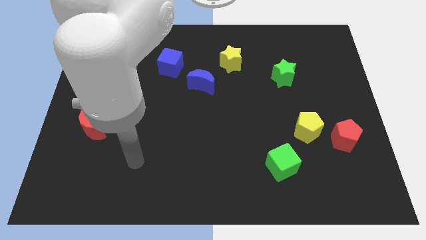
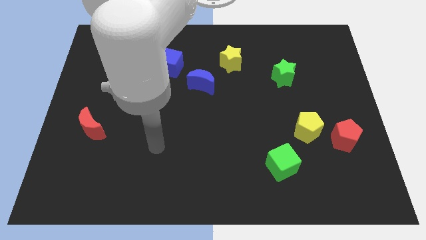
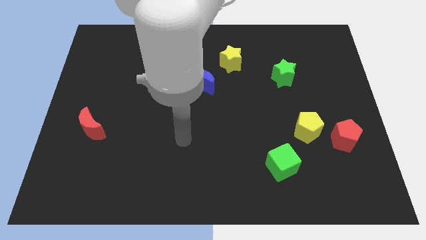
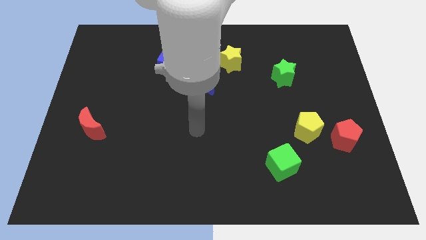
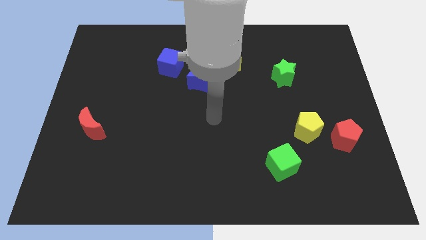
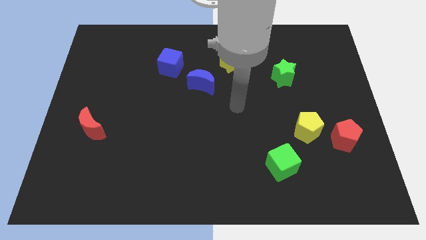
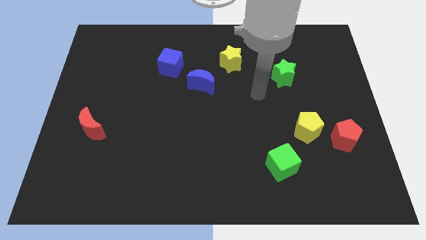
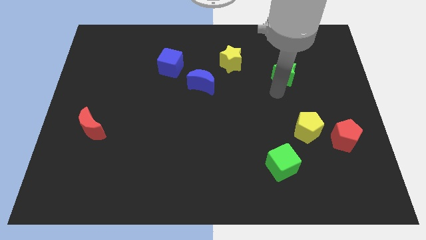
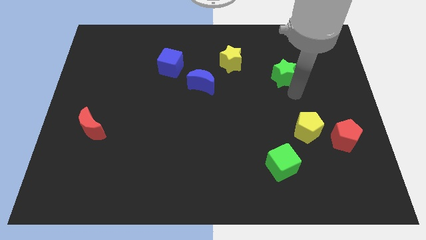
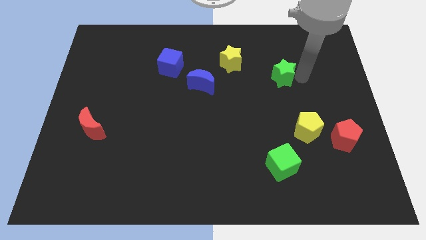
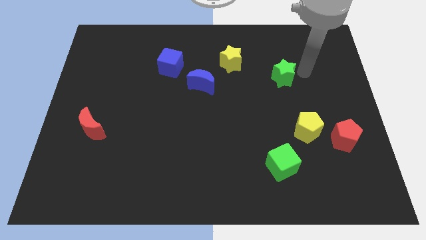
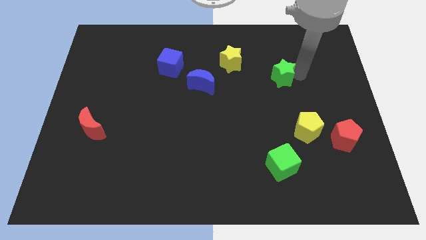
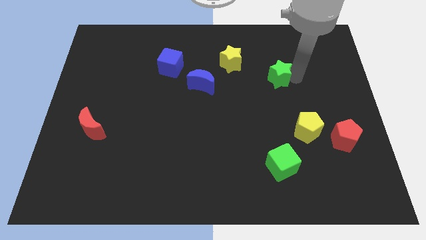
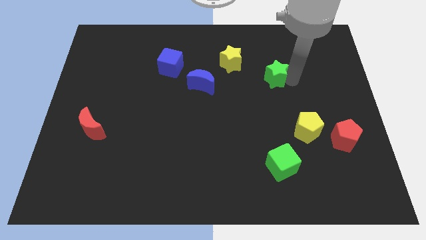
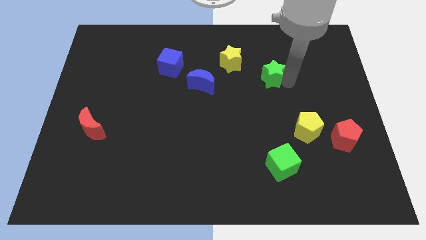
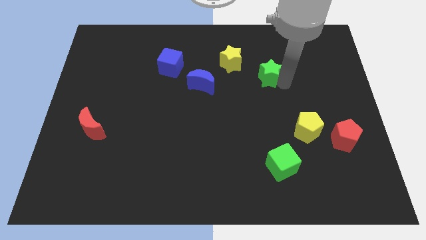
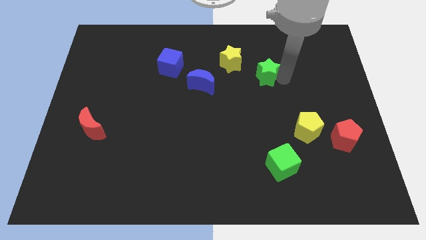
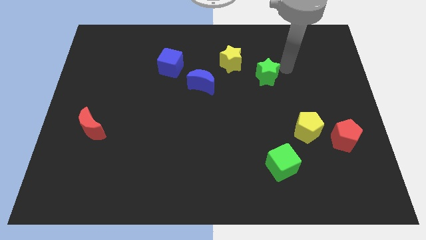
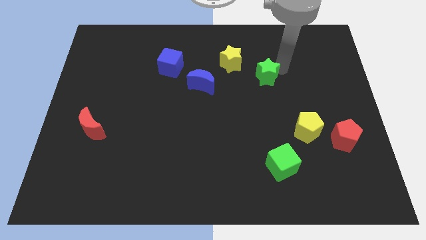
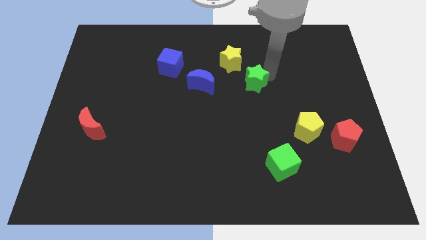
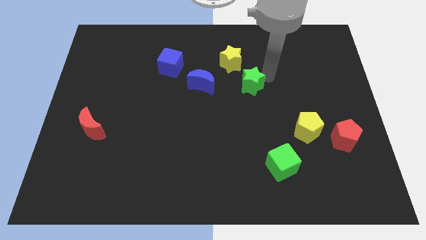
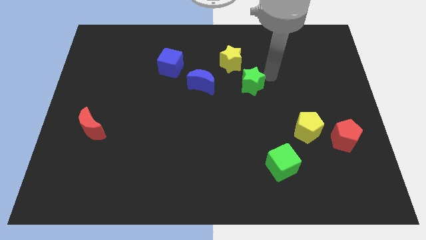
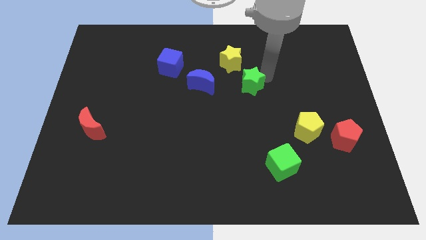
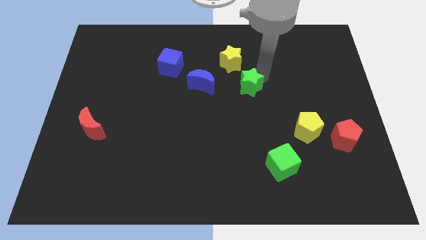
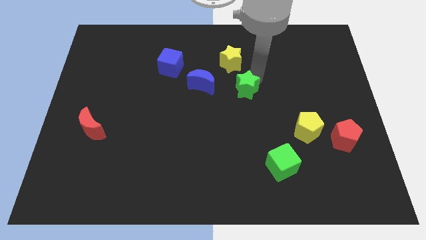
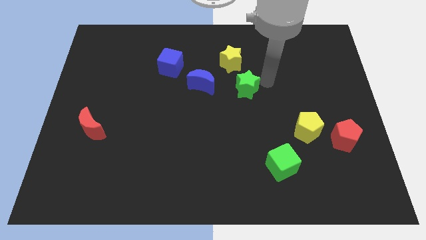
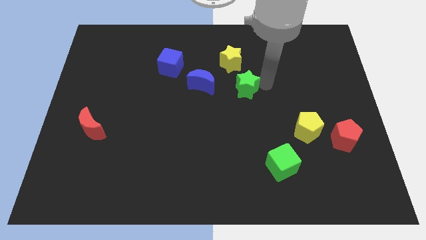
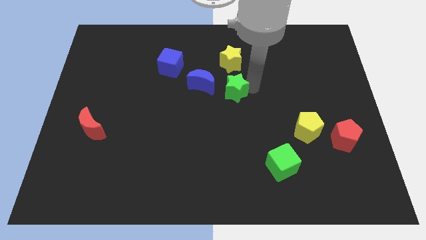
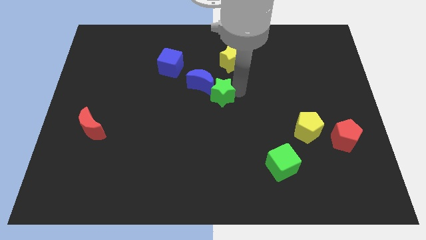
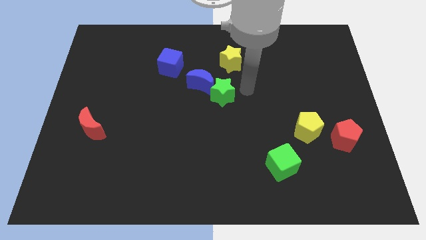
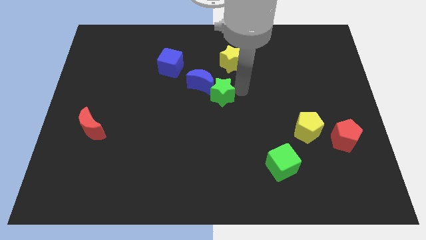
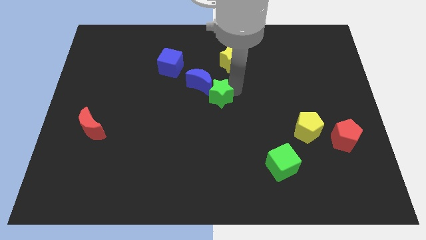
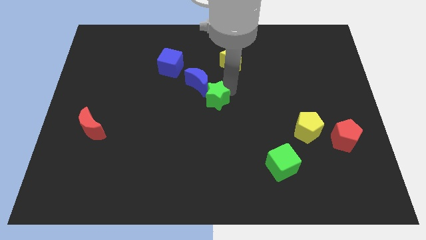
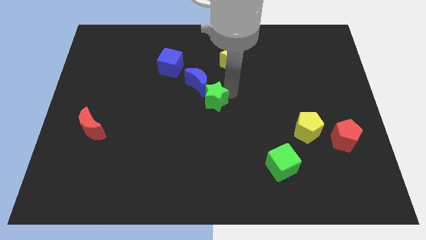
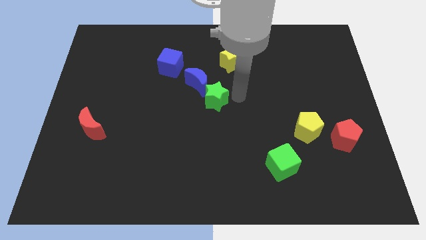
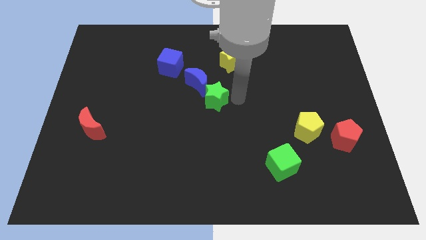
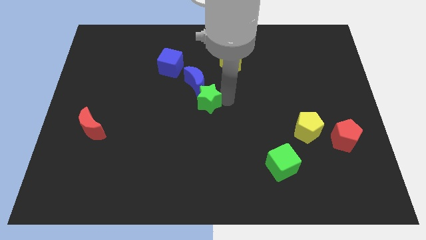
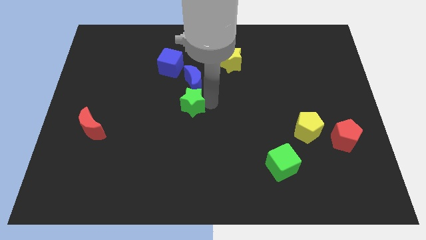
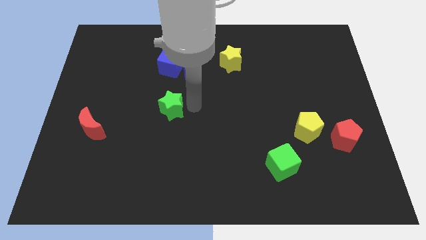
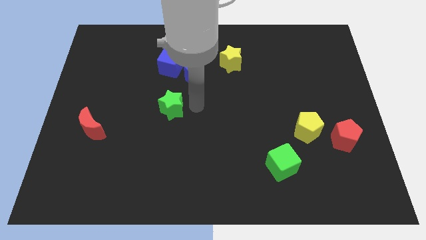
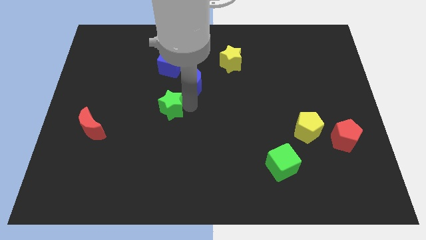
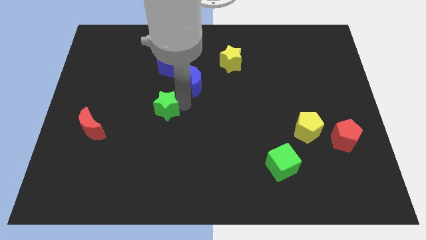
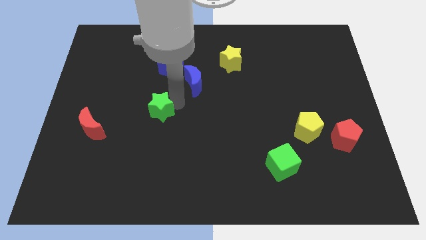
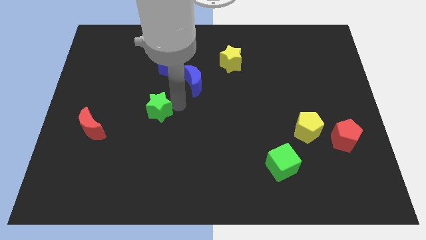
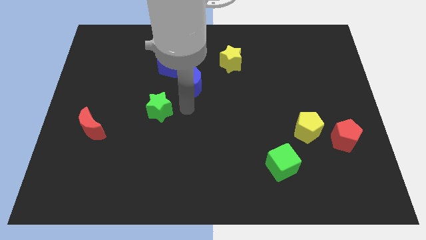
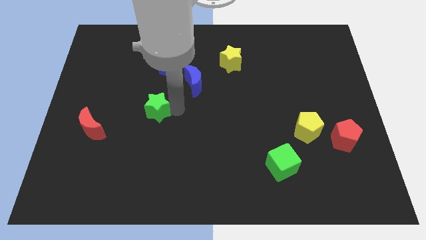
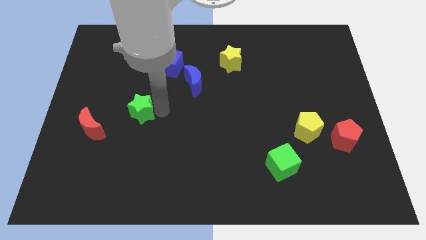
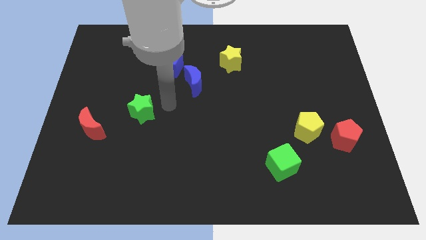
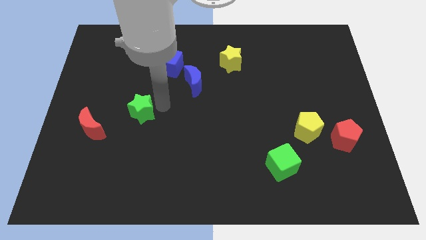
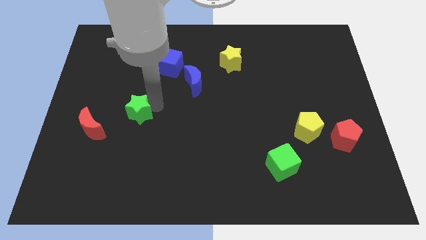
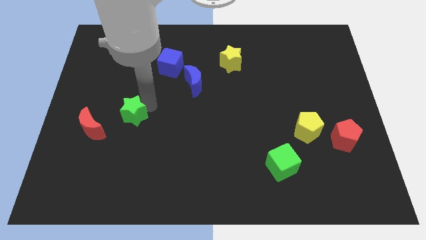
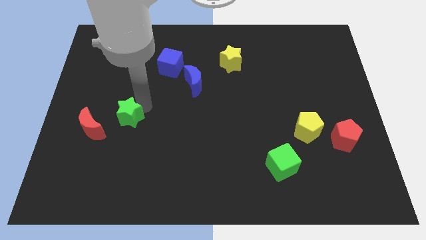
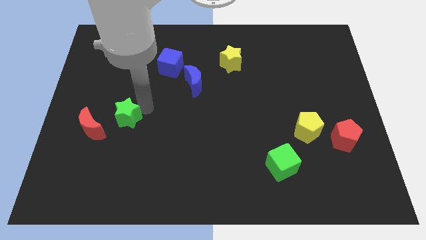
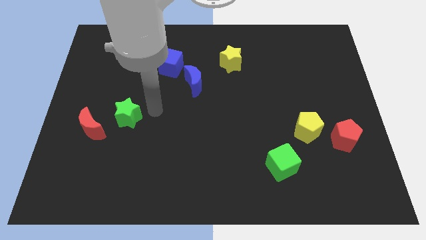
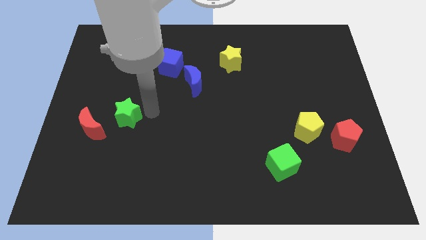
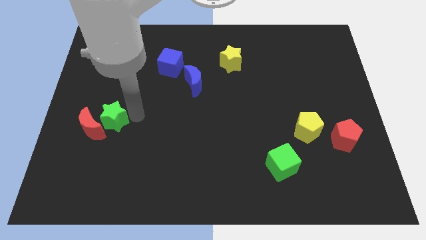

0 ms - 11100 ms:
put the green star close to the red moon

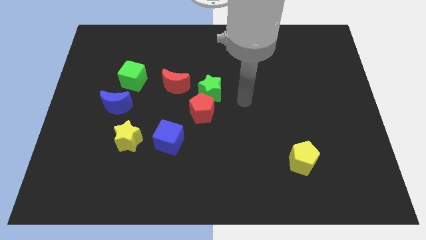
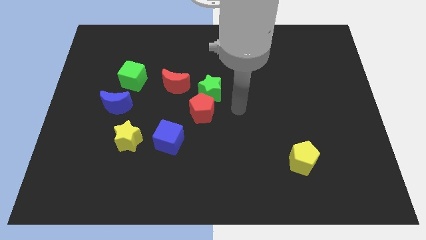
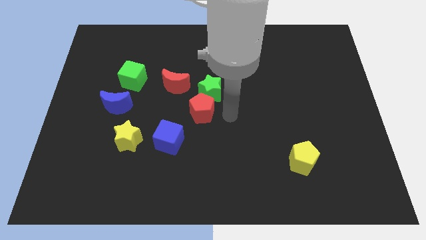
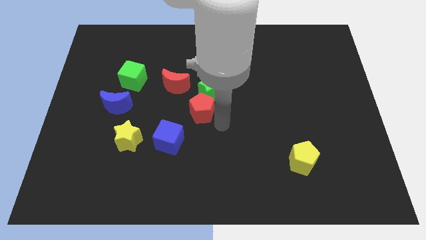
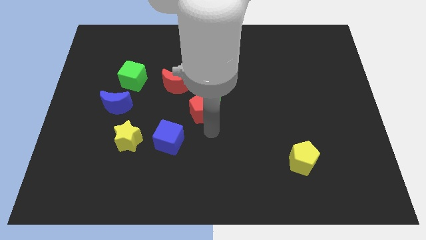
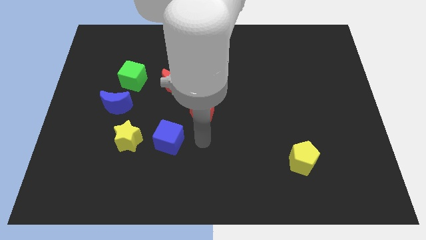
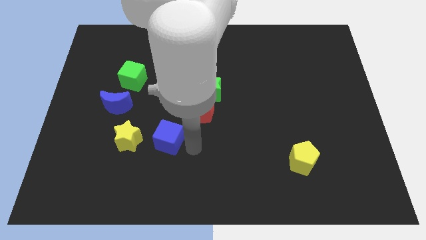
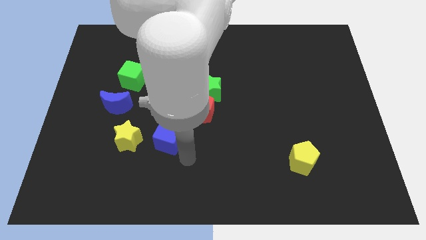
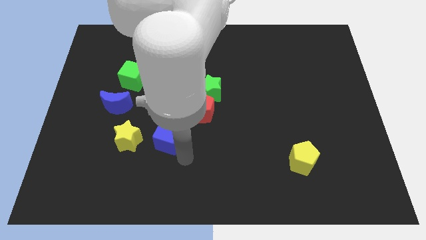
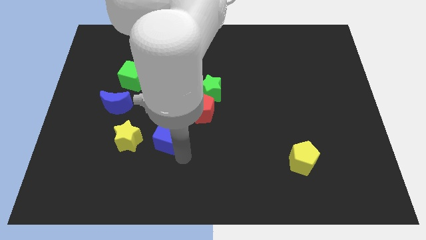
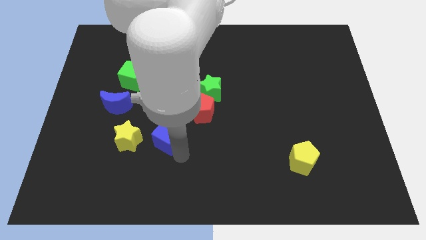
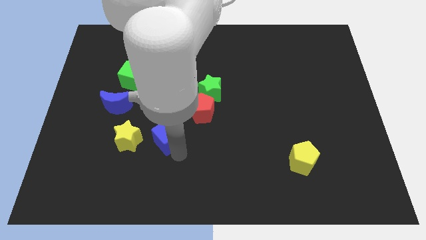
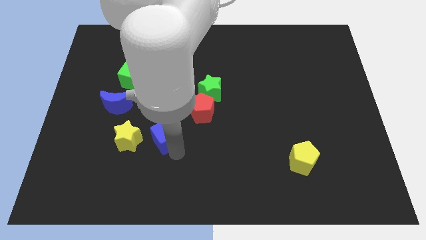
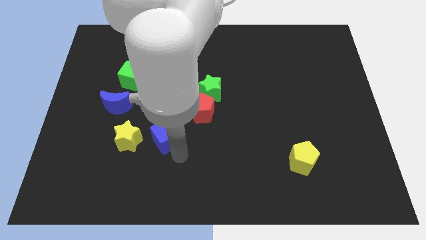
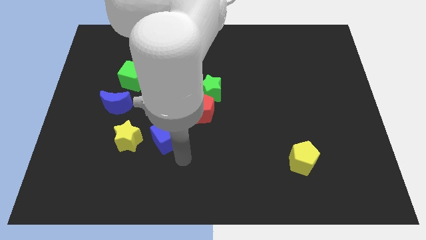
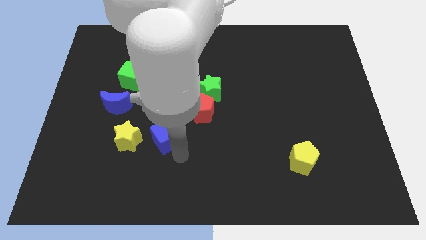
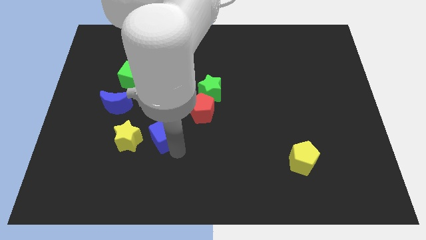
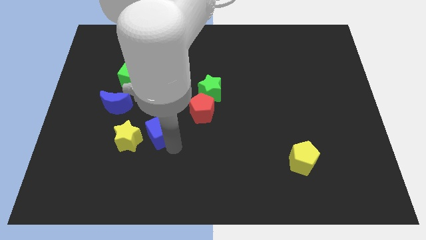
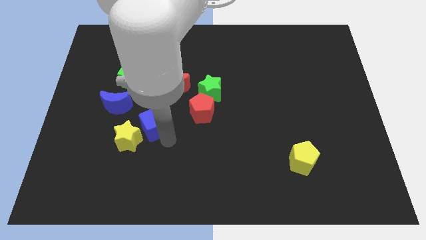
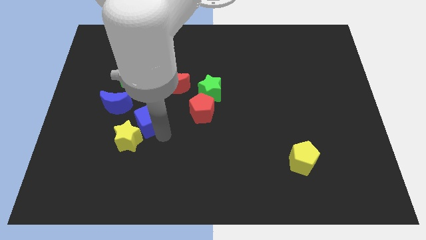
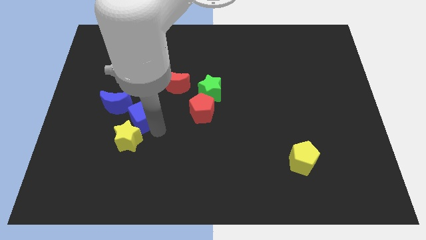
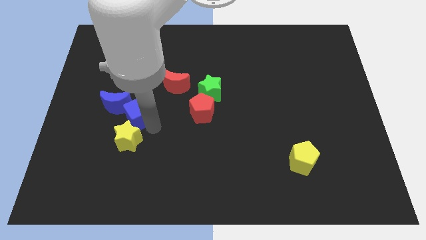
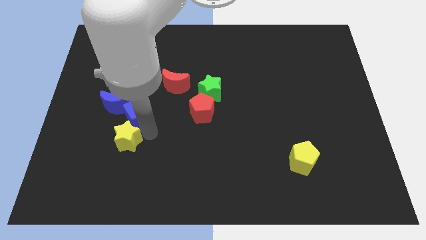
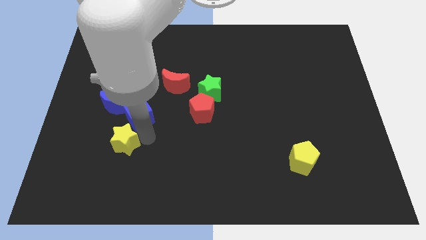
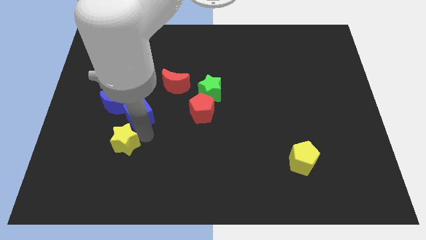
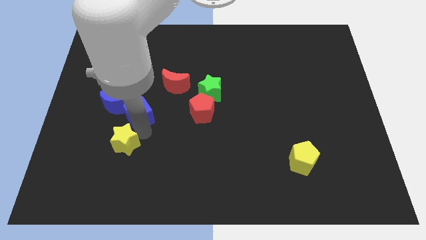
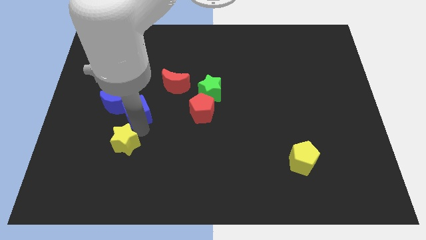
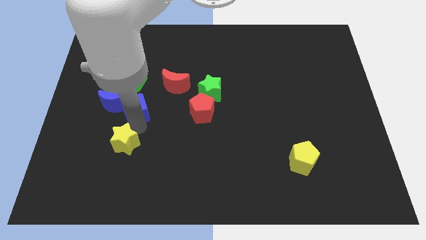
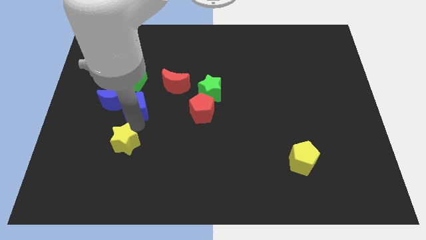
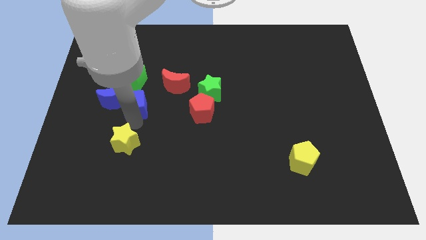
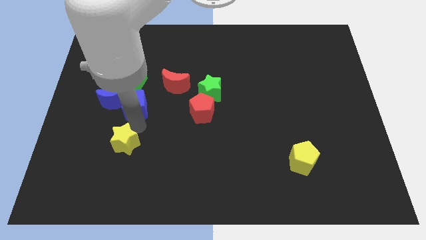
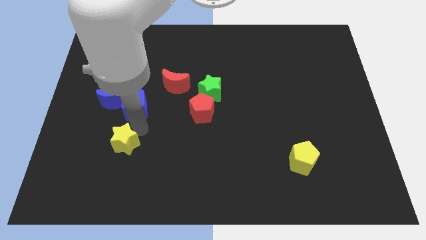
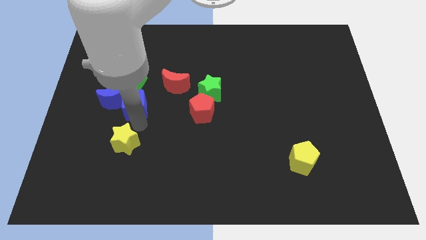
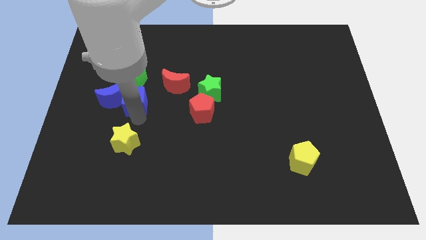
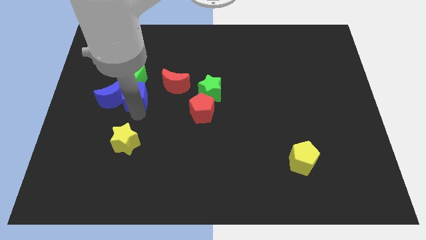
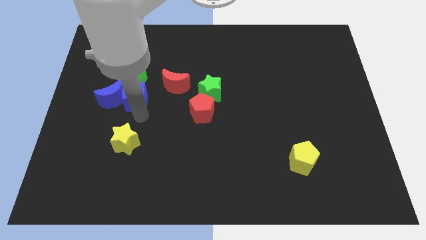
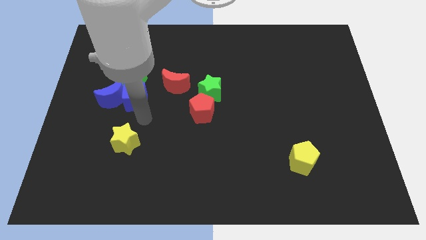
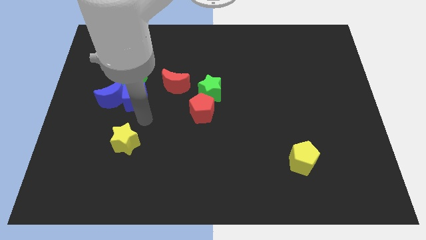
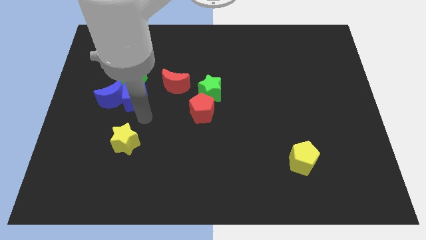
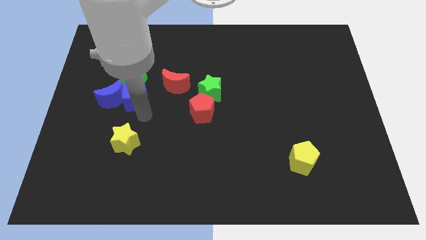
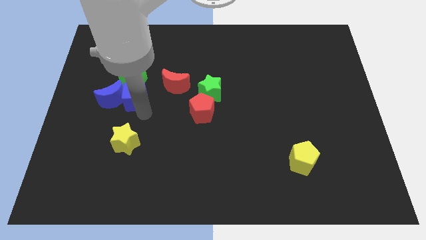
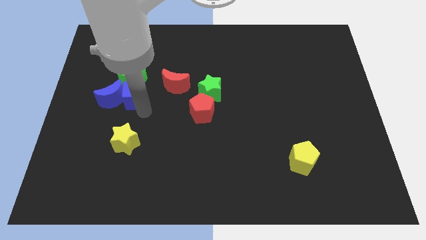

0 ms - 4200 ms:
put the blue cube next to the green cube
